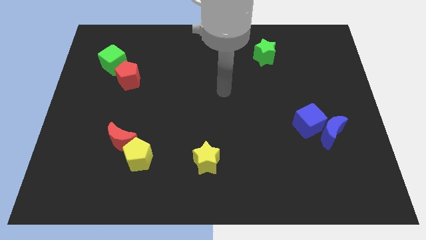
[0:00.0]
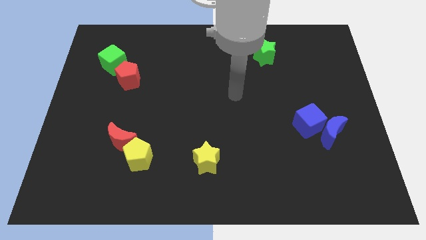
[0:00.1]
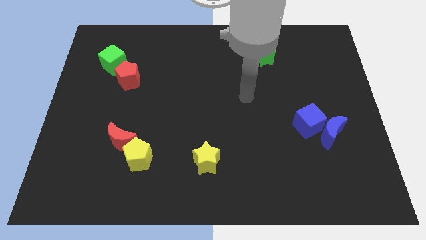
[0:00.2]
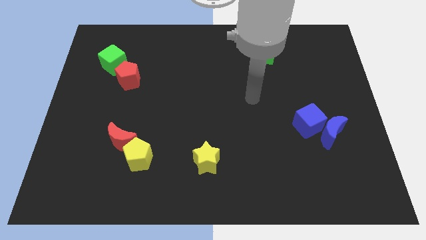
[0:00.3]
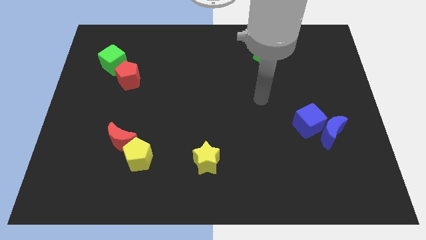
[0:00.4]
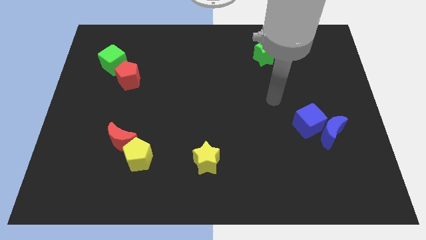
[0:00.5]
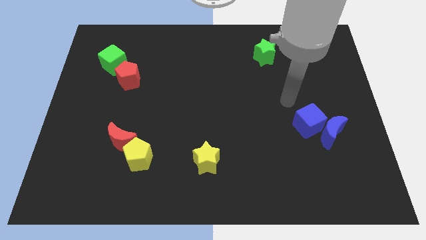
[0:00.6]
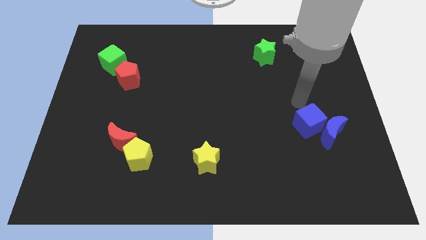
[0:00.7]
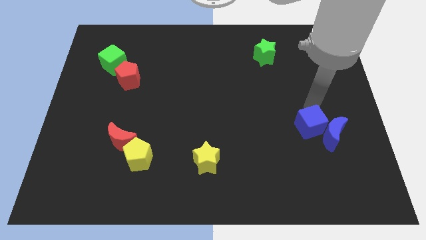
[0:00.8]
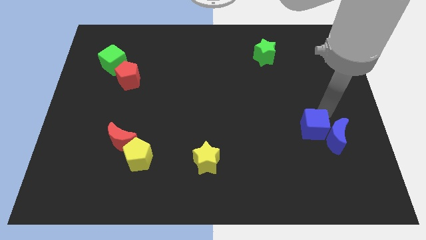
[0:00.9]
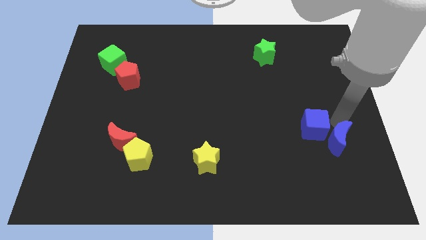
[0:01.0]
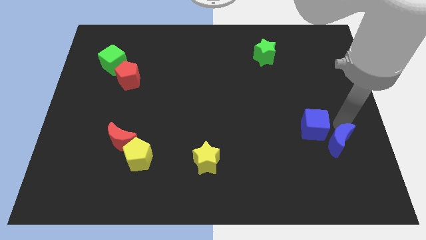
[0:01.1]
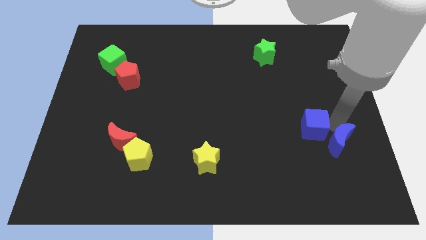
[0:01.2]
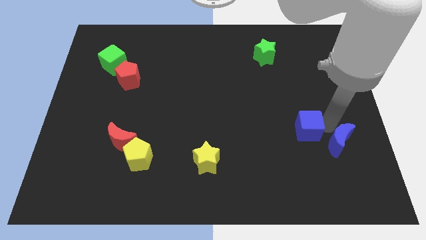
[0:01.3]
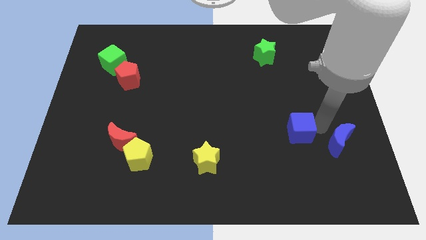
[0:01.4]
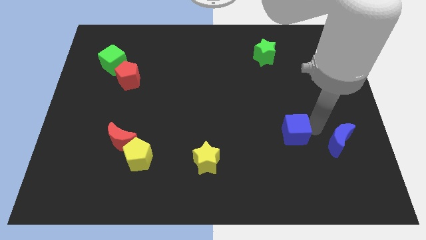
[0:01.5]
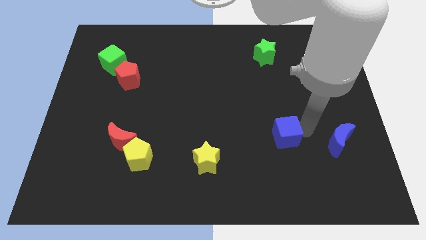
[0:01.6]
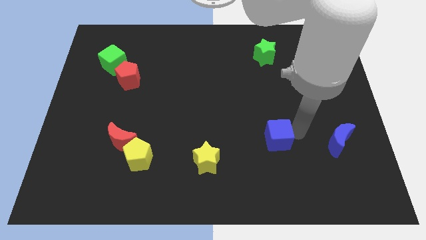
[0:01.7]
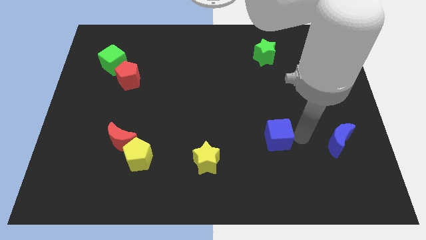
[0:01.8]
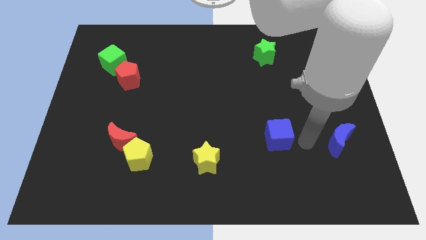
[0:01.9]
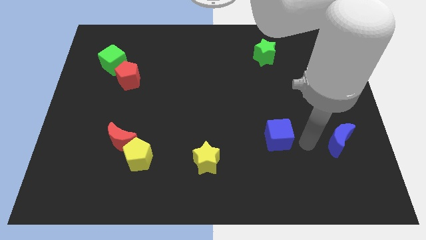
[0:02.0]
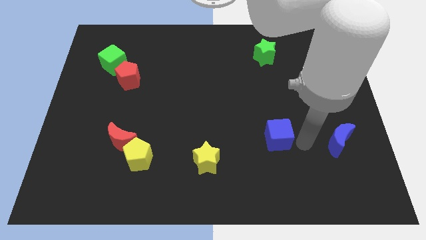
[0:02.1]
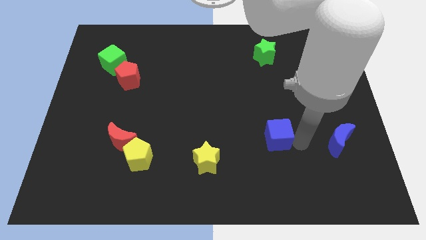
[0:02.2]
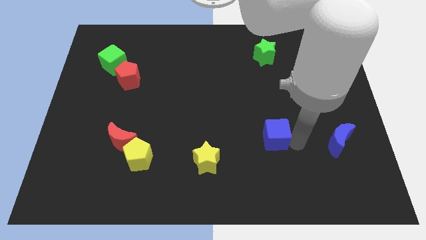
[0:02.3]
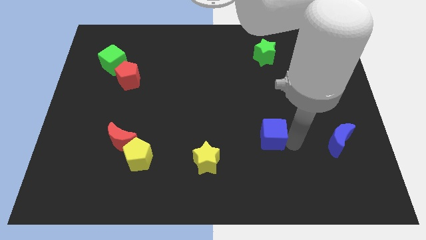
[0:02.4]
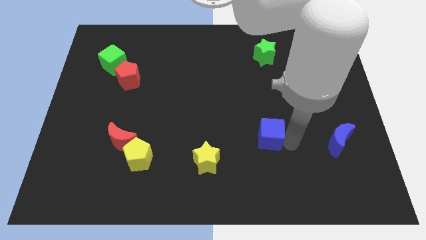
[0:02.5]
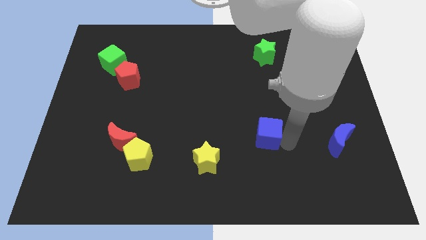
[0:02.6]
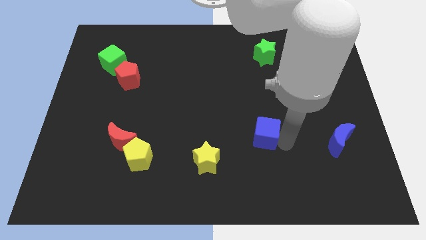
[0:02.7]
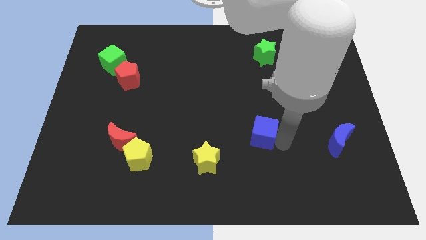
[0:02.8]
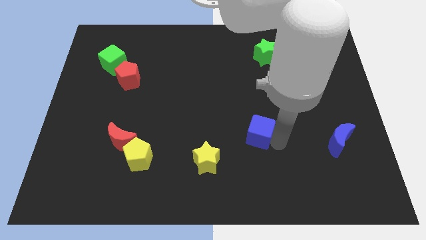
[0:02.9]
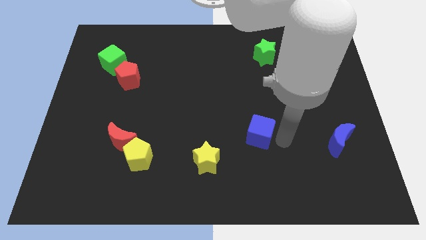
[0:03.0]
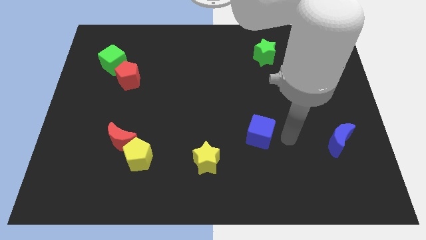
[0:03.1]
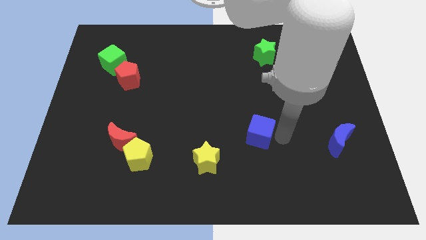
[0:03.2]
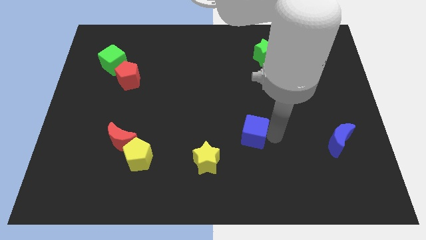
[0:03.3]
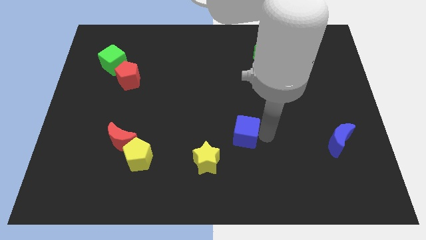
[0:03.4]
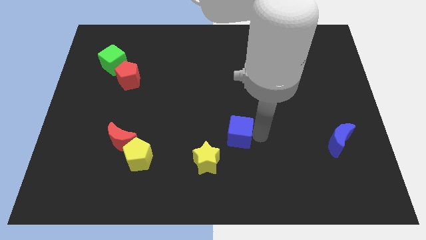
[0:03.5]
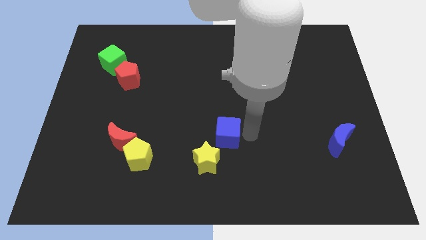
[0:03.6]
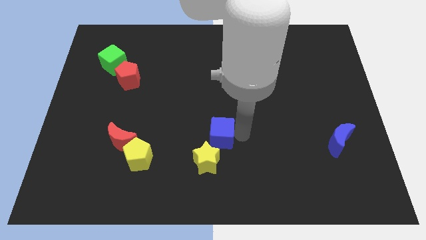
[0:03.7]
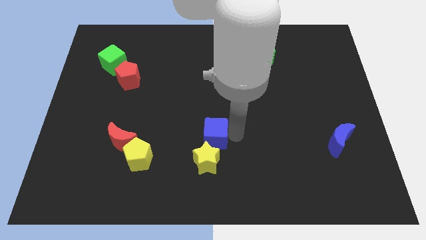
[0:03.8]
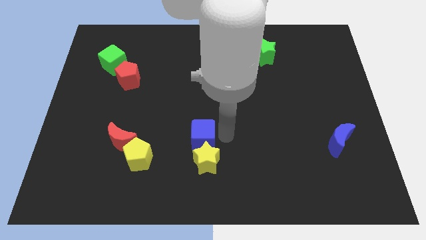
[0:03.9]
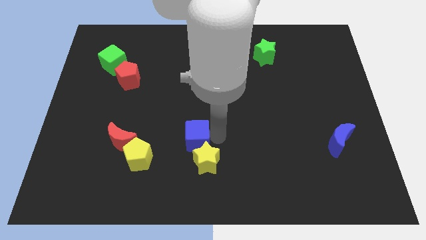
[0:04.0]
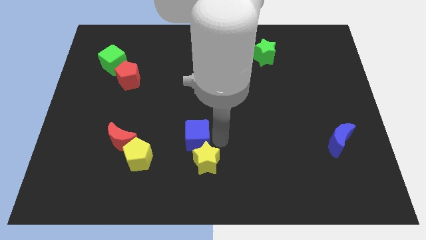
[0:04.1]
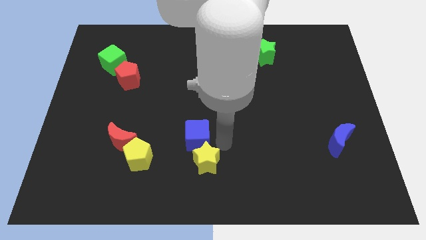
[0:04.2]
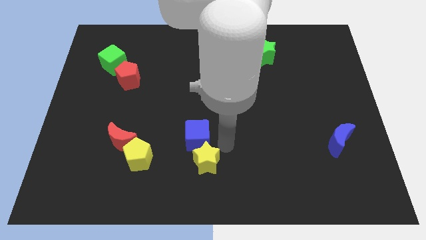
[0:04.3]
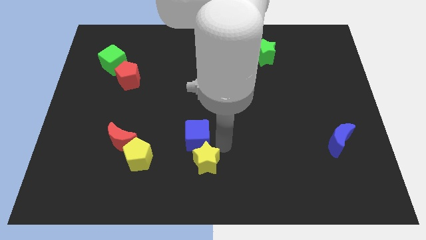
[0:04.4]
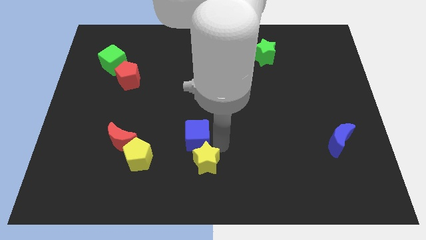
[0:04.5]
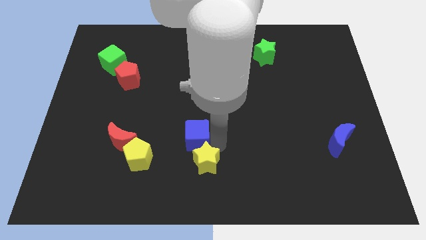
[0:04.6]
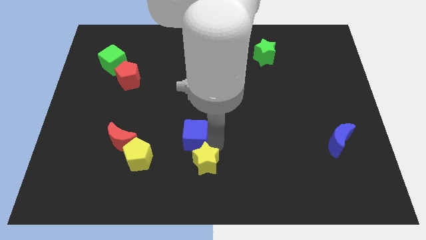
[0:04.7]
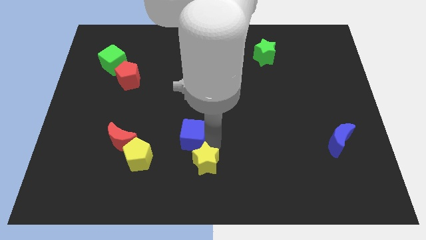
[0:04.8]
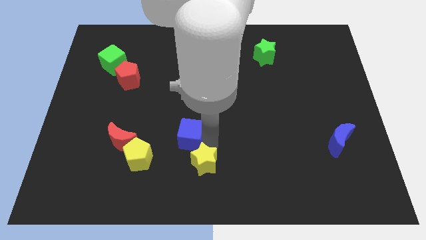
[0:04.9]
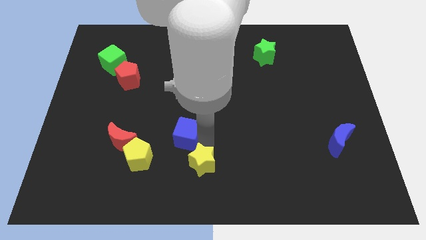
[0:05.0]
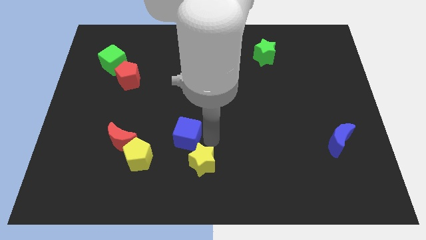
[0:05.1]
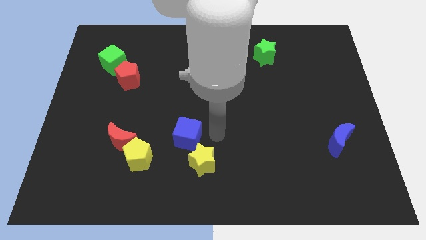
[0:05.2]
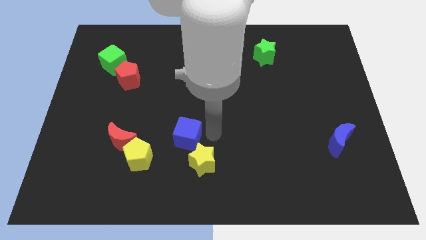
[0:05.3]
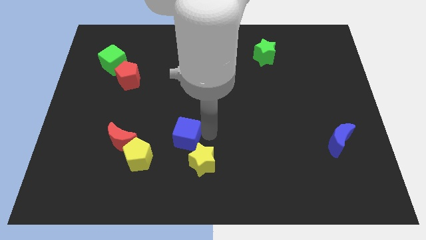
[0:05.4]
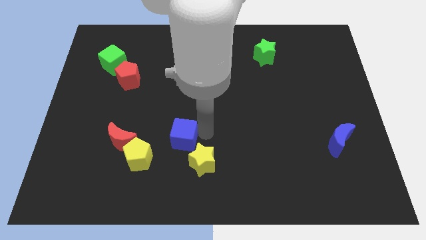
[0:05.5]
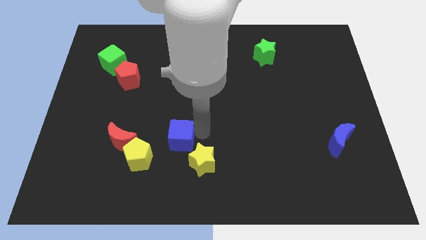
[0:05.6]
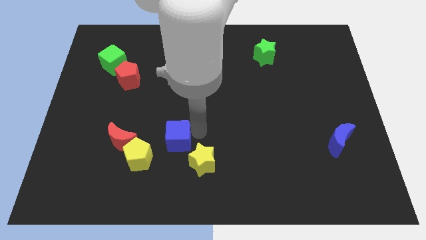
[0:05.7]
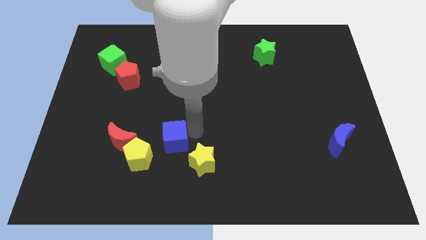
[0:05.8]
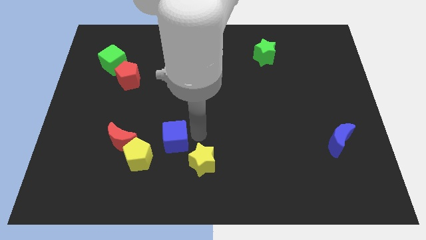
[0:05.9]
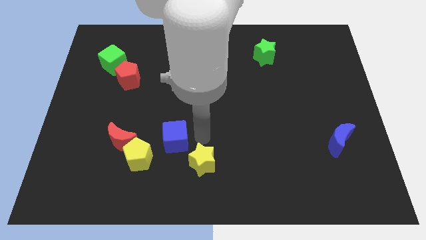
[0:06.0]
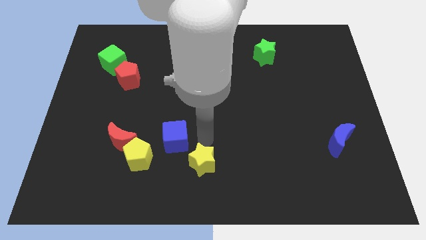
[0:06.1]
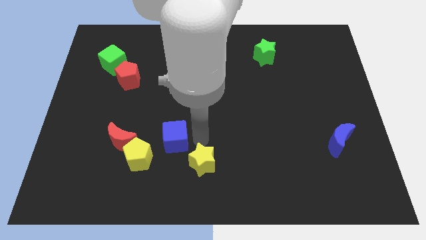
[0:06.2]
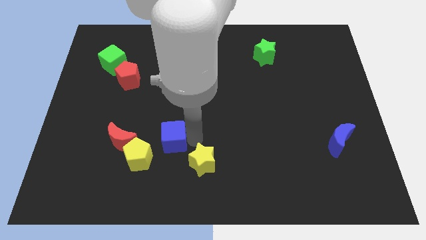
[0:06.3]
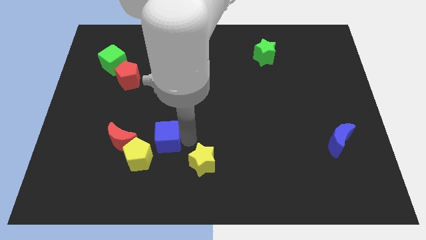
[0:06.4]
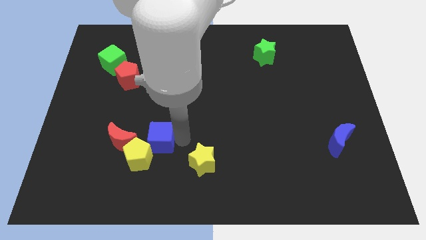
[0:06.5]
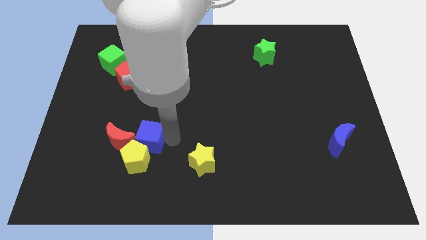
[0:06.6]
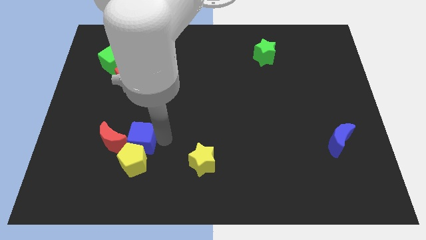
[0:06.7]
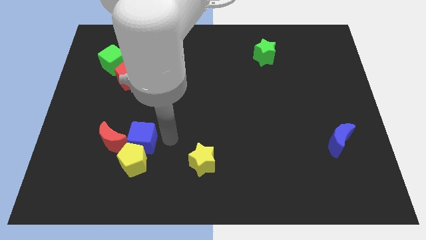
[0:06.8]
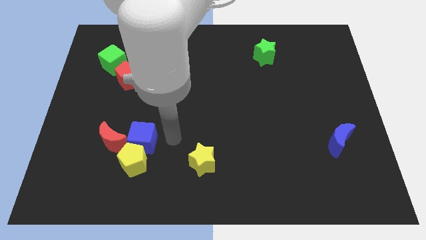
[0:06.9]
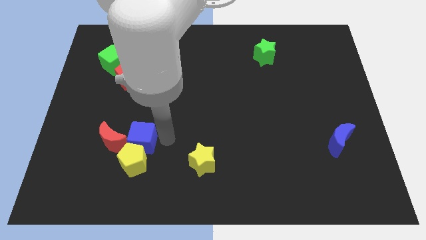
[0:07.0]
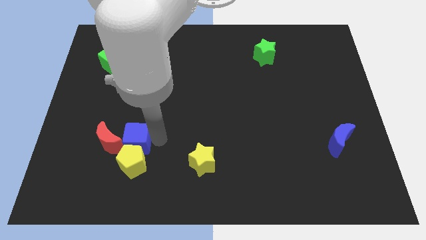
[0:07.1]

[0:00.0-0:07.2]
push the blue cube close to the red moon
